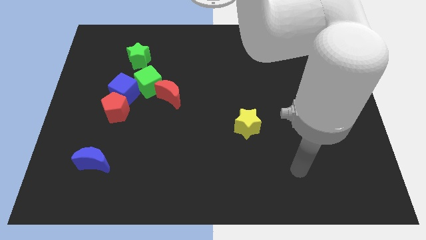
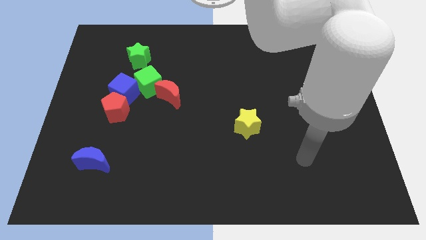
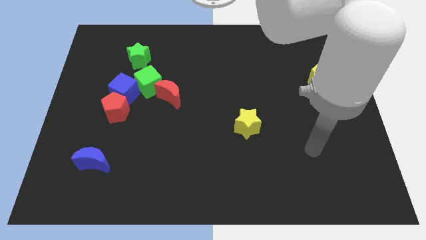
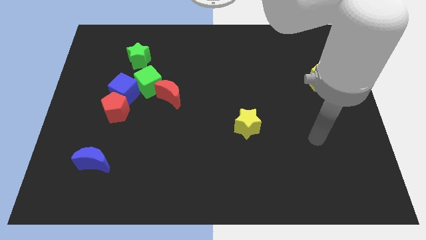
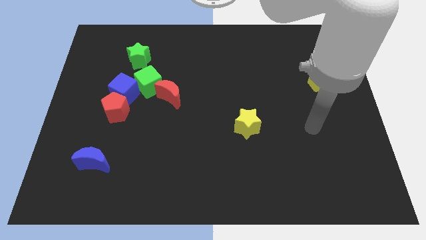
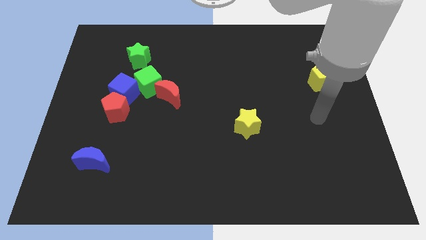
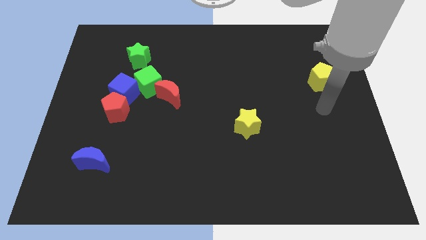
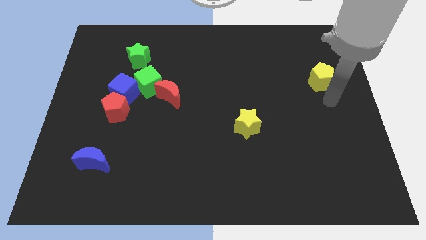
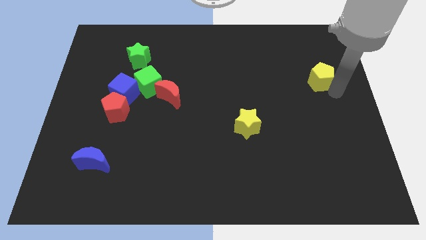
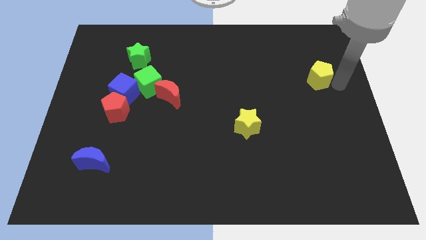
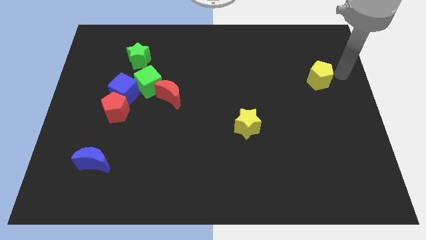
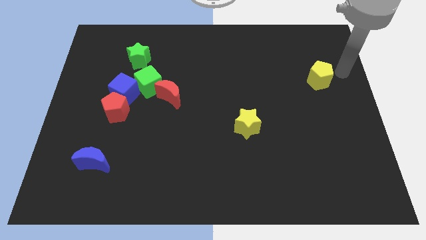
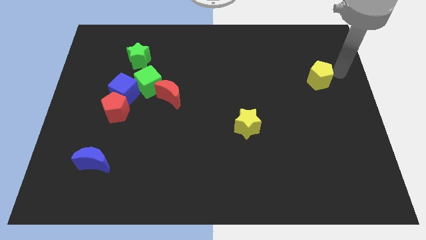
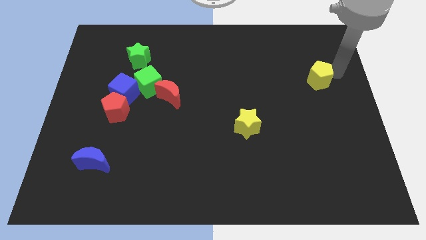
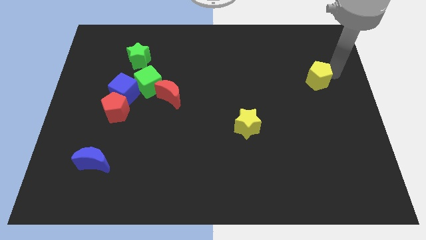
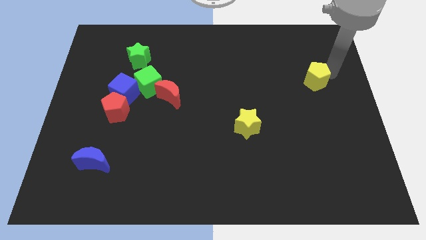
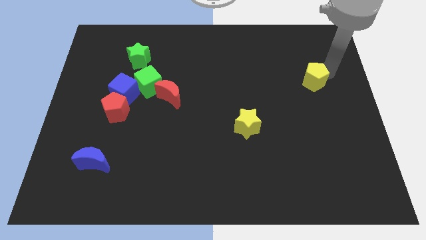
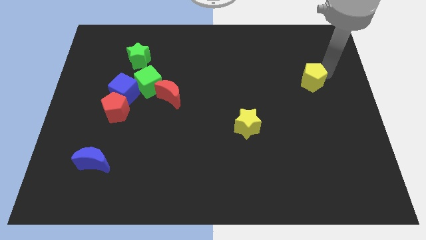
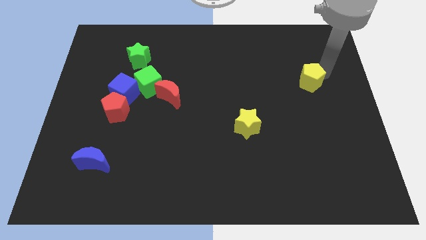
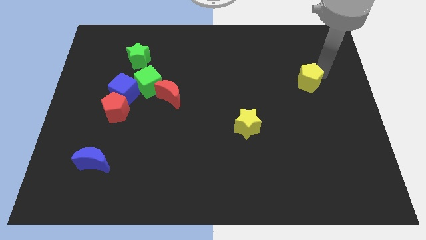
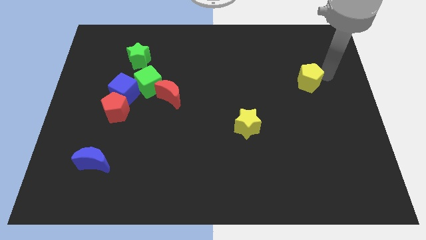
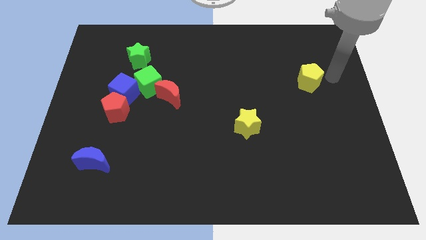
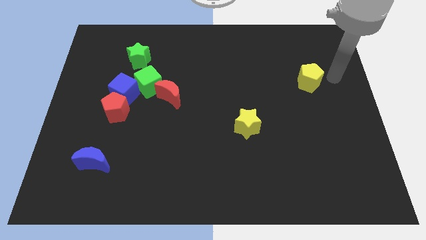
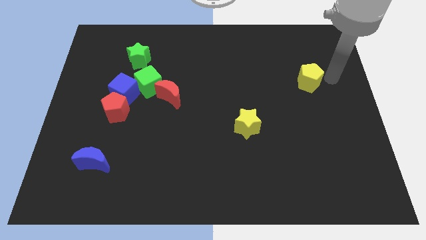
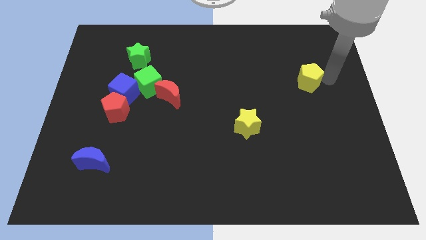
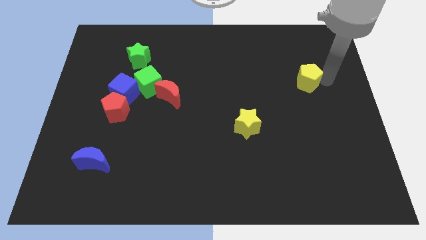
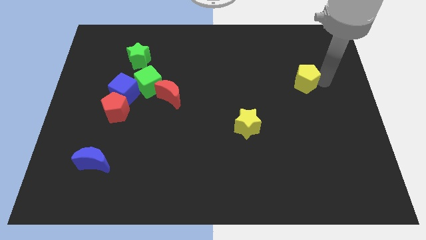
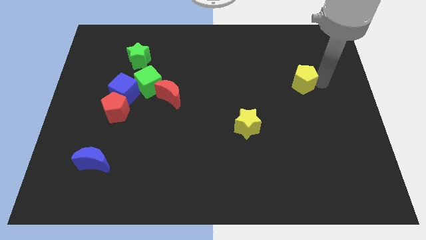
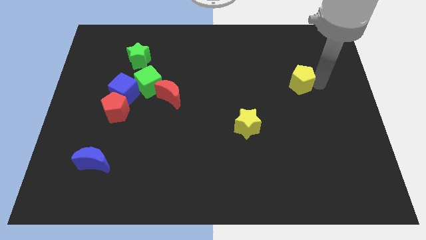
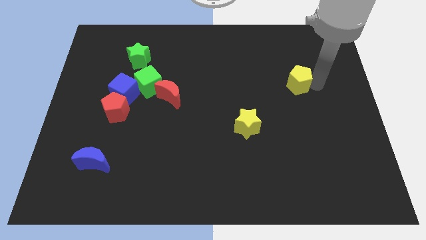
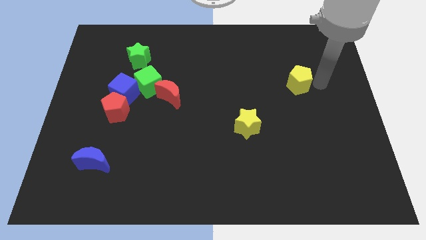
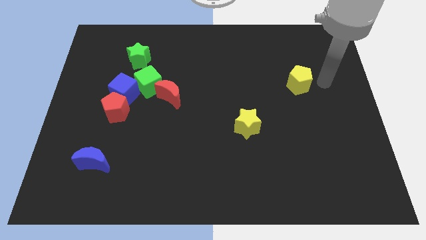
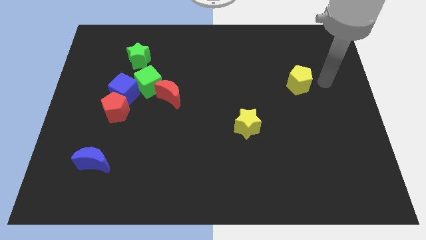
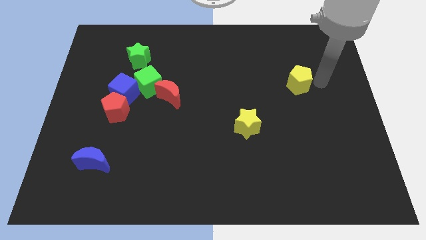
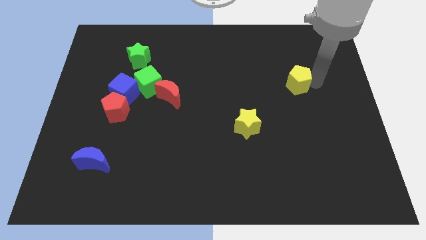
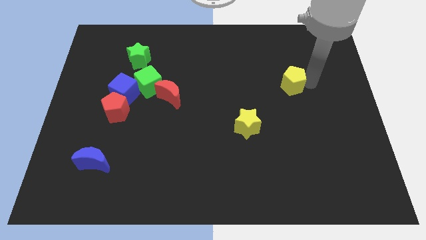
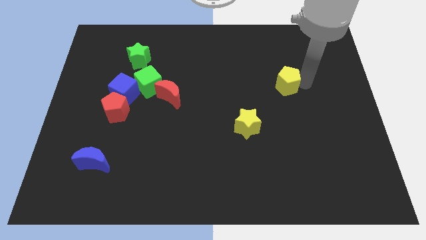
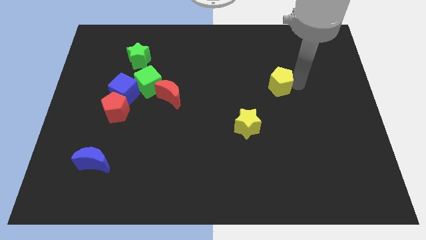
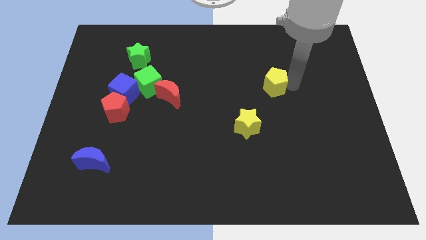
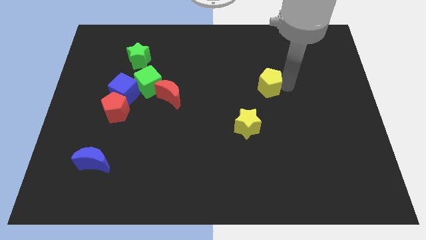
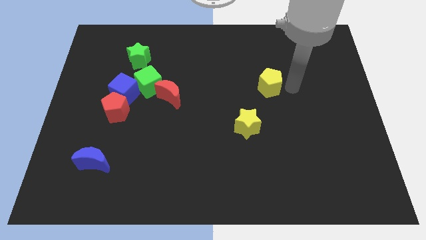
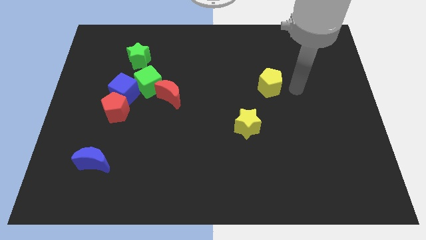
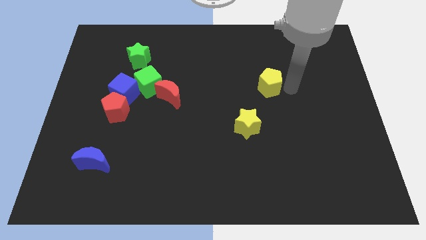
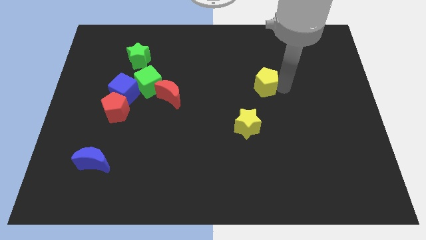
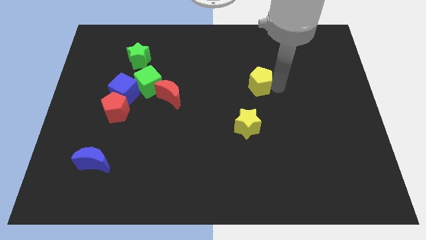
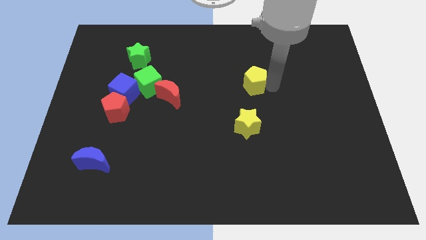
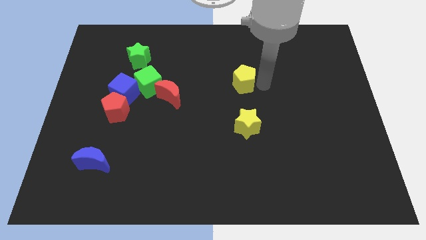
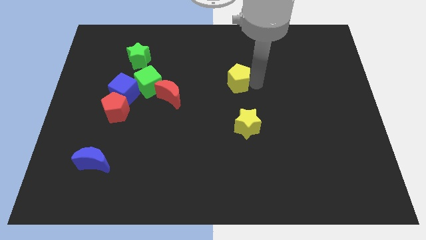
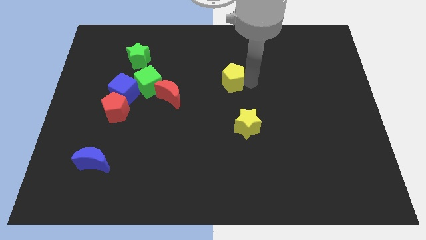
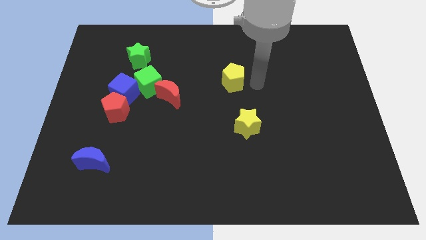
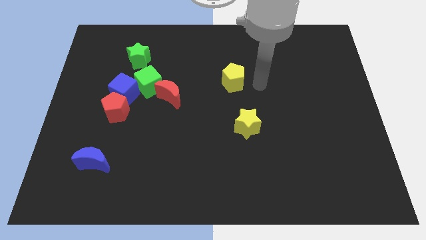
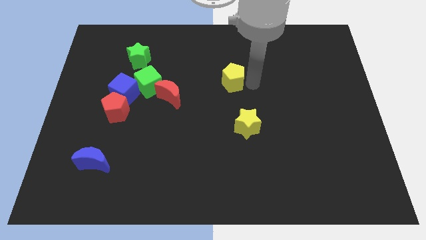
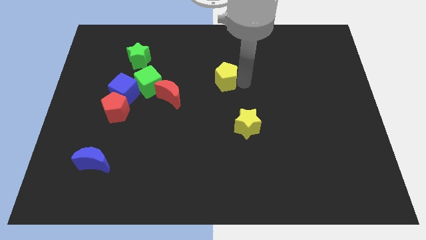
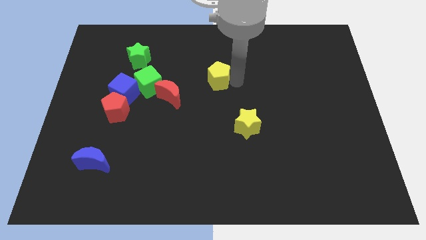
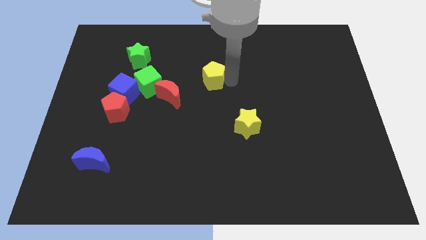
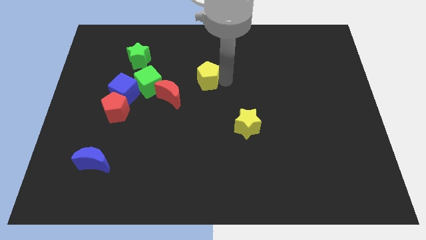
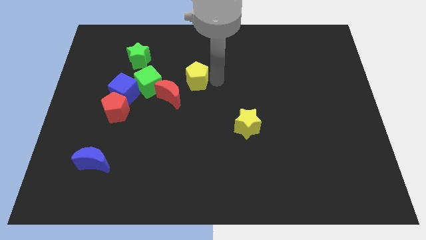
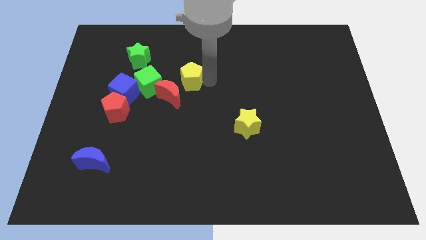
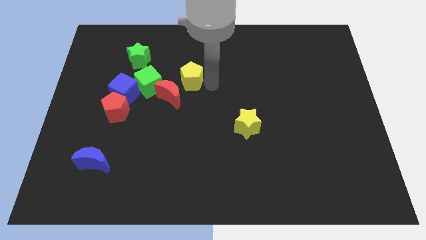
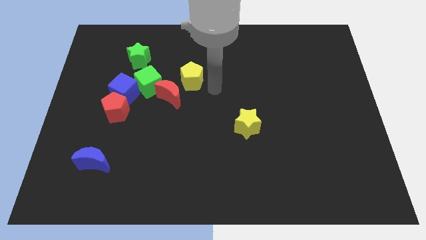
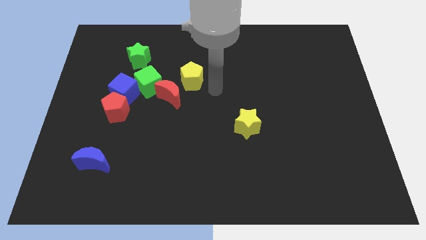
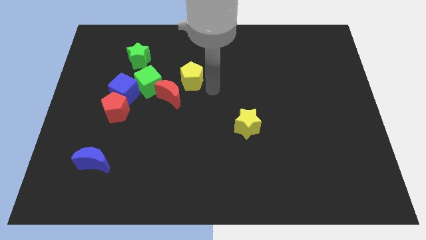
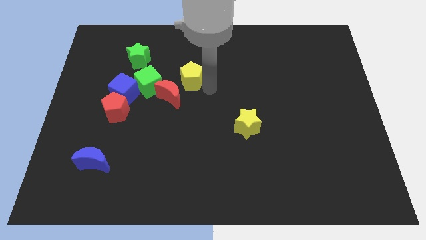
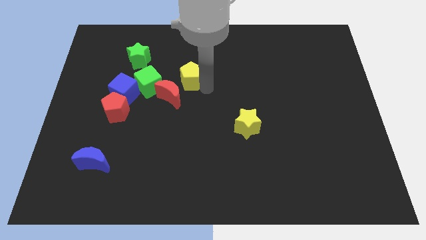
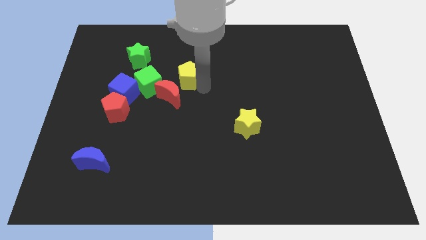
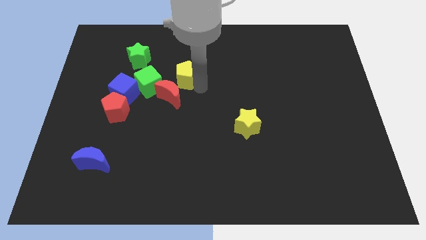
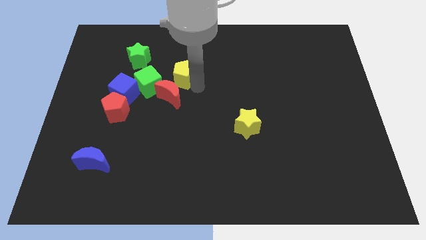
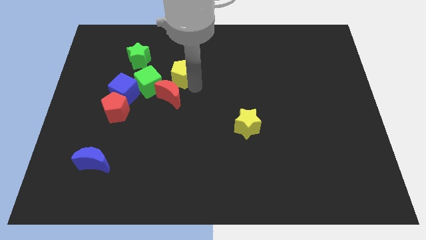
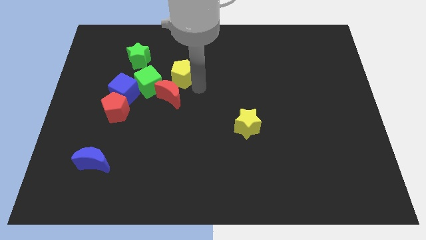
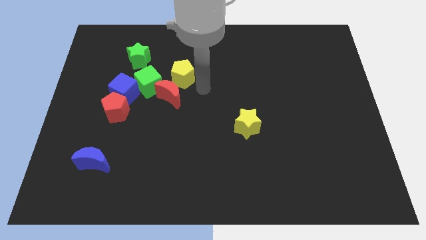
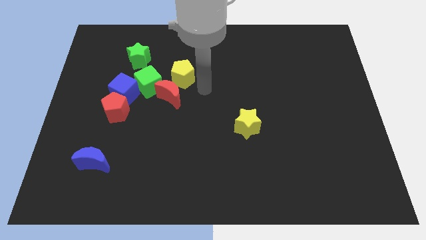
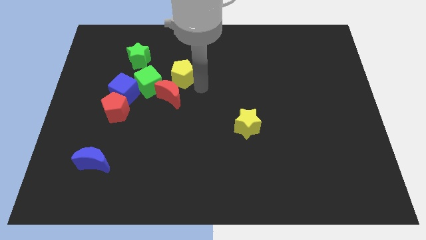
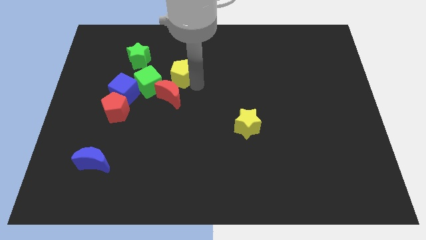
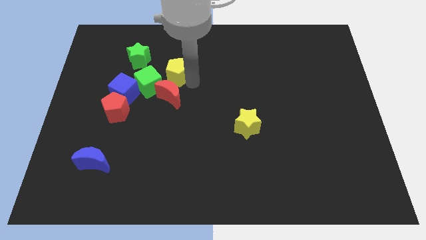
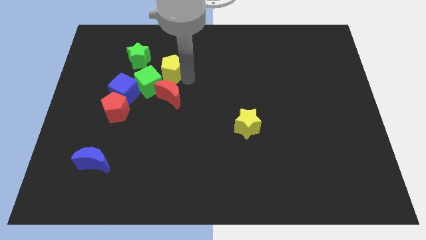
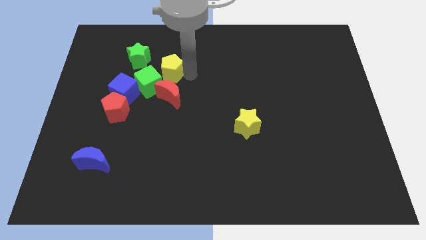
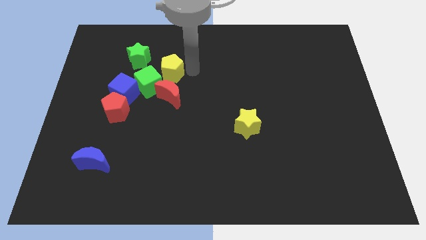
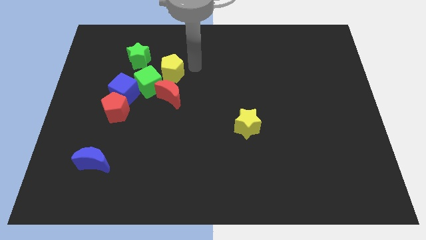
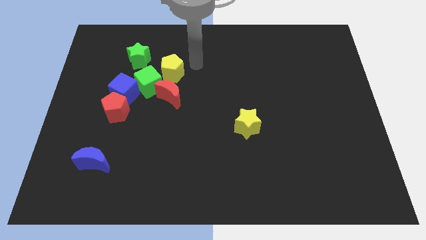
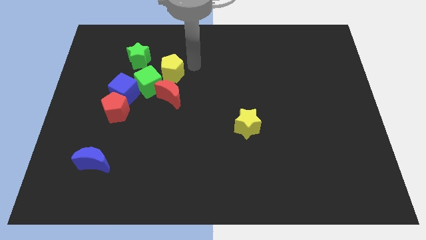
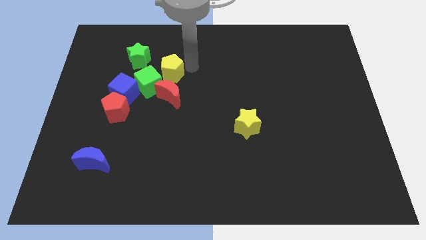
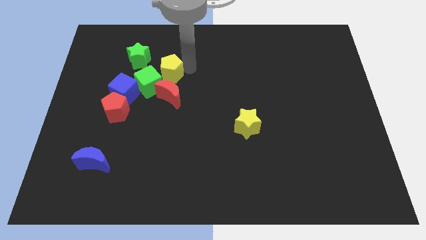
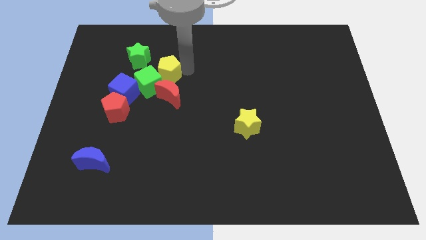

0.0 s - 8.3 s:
put the yellow pentagon diagonally up and to the left of the red moon
